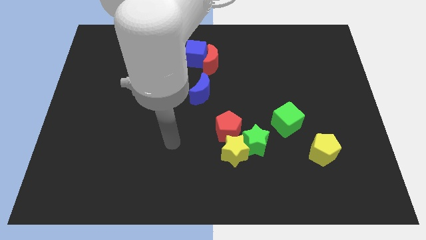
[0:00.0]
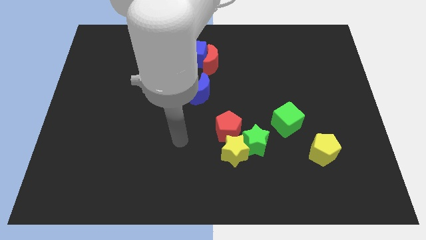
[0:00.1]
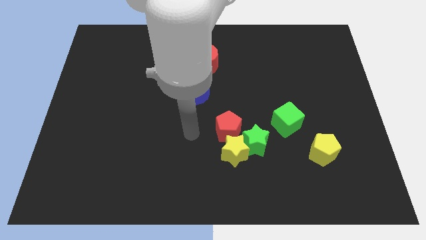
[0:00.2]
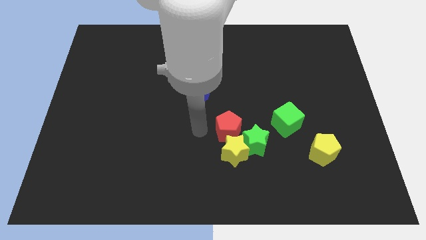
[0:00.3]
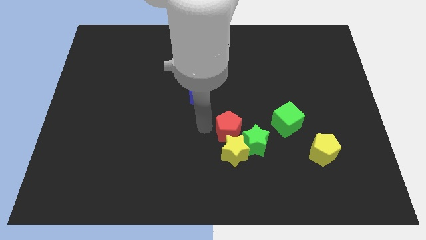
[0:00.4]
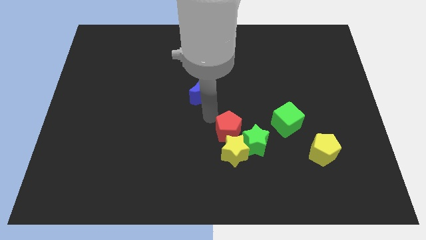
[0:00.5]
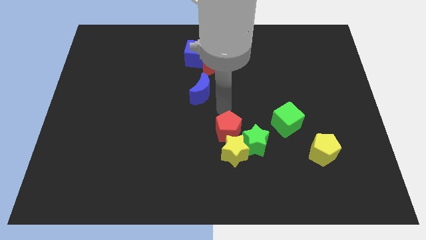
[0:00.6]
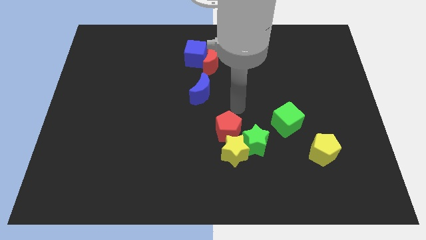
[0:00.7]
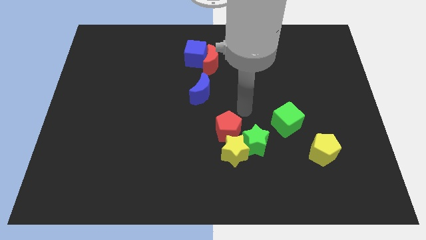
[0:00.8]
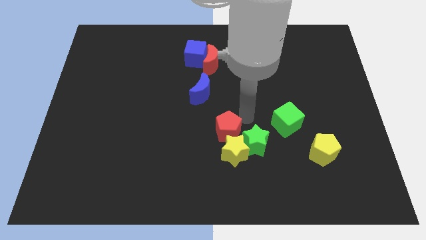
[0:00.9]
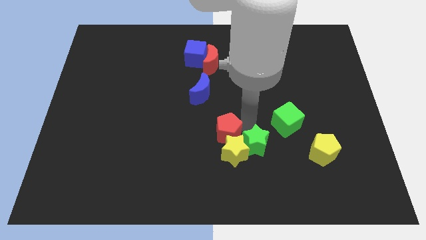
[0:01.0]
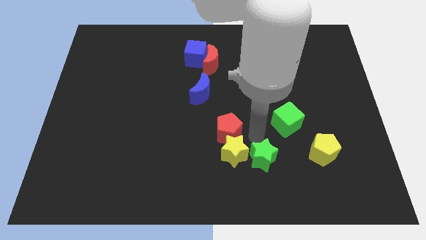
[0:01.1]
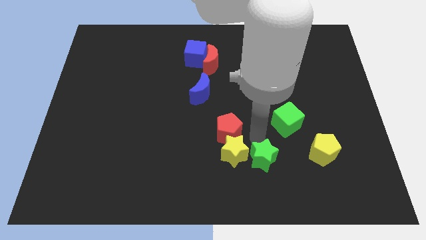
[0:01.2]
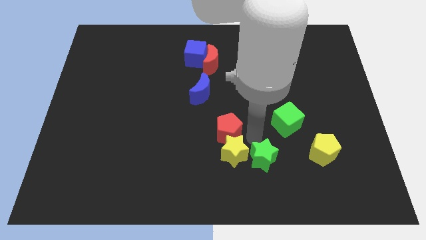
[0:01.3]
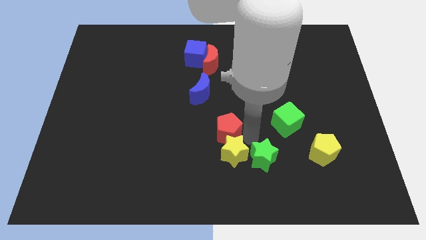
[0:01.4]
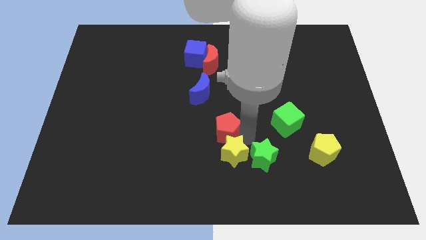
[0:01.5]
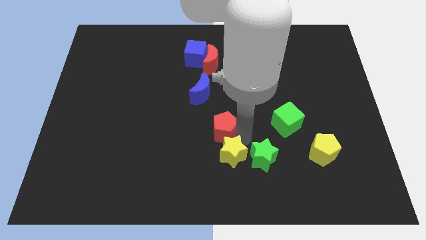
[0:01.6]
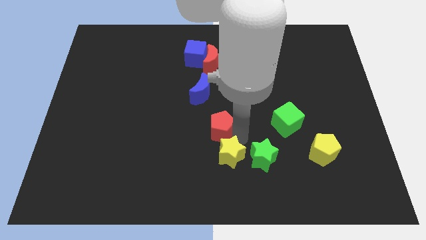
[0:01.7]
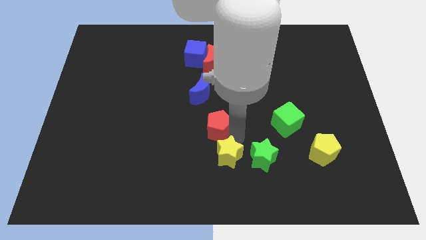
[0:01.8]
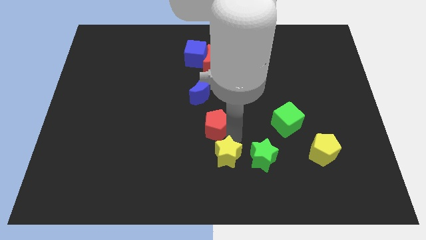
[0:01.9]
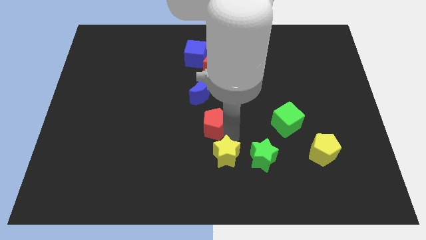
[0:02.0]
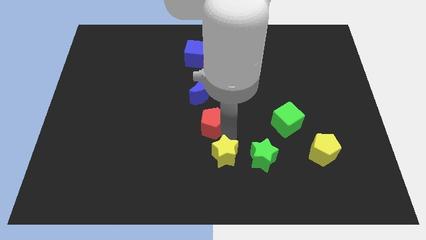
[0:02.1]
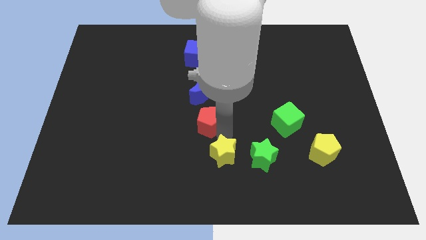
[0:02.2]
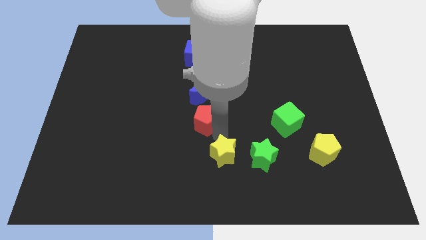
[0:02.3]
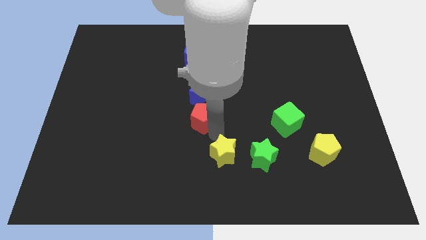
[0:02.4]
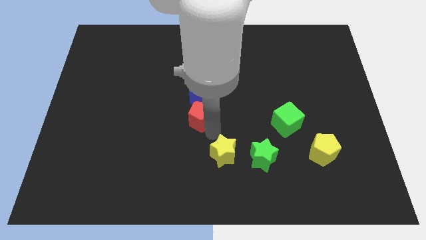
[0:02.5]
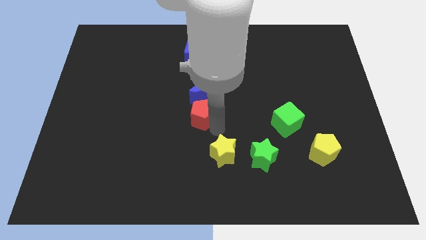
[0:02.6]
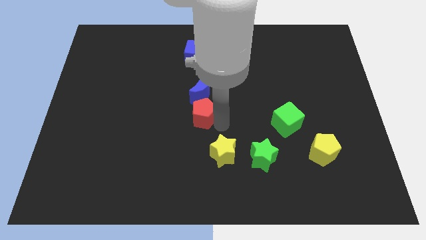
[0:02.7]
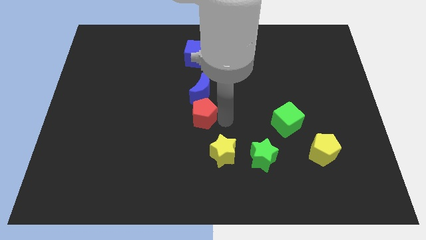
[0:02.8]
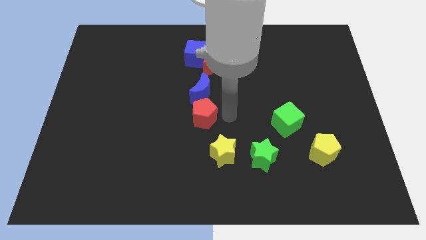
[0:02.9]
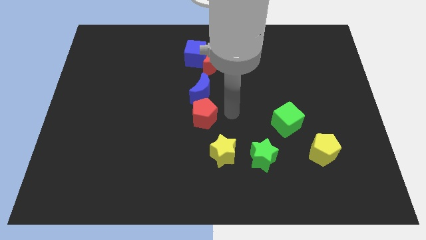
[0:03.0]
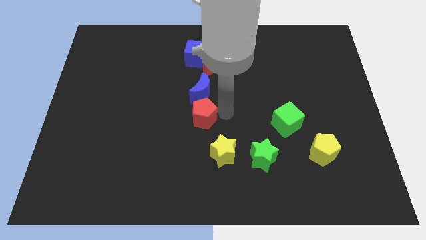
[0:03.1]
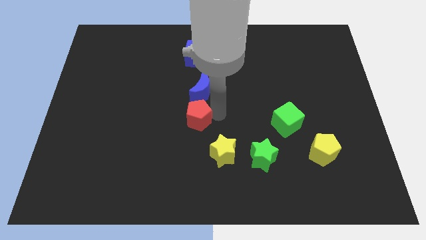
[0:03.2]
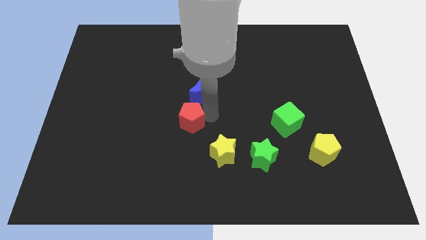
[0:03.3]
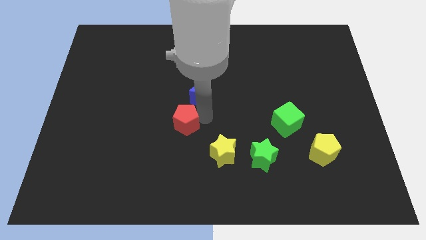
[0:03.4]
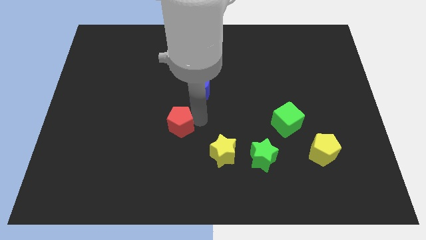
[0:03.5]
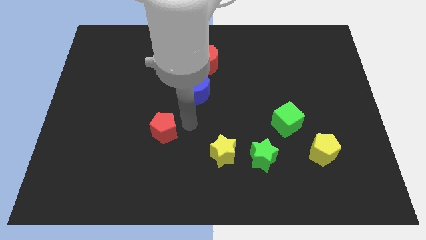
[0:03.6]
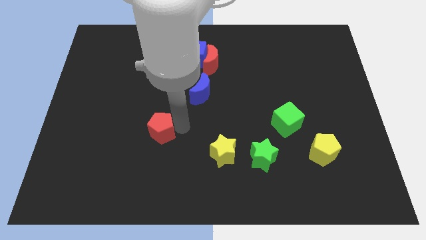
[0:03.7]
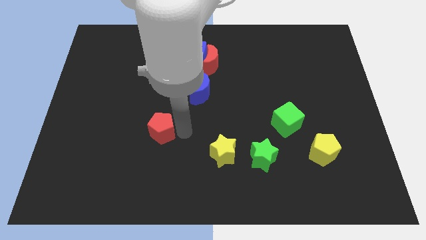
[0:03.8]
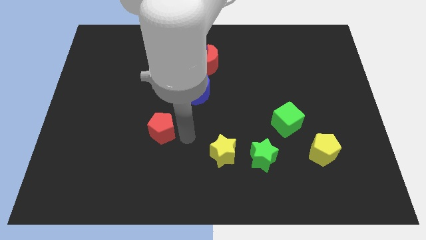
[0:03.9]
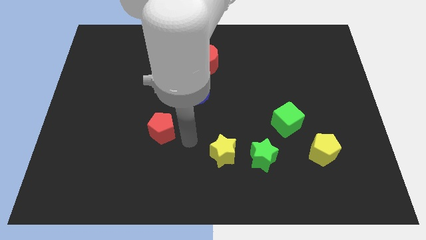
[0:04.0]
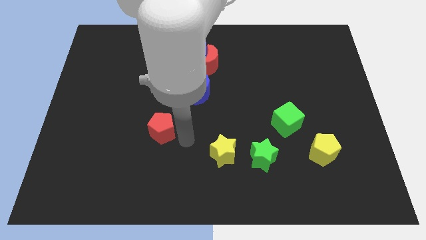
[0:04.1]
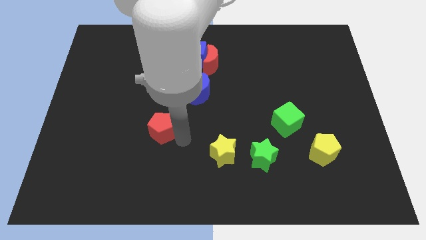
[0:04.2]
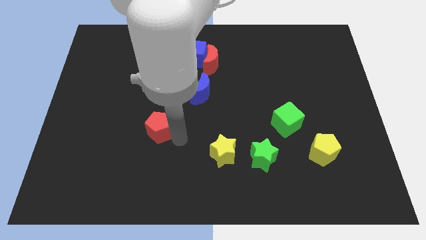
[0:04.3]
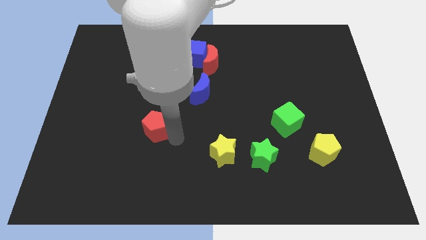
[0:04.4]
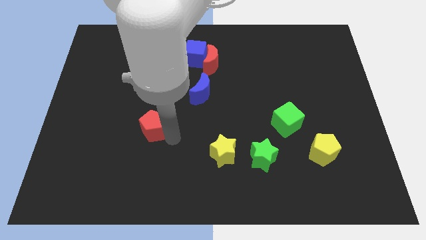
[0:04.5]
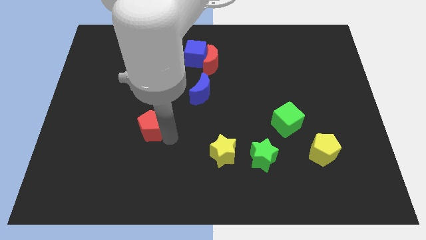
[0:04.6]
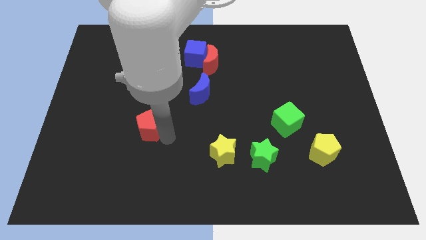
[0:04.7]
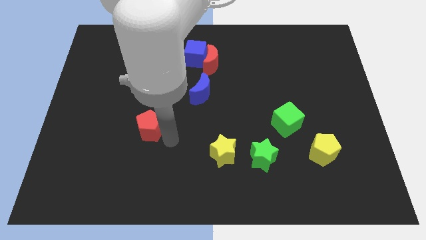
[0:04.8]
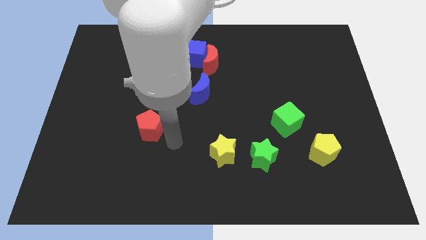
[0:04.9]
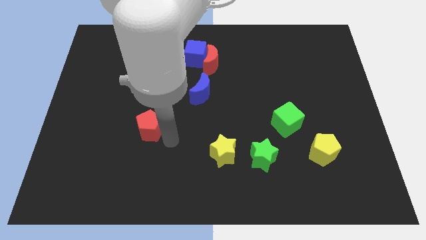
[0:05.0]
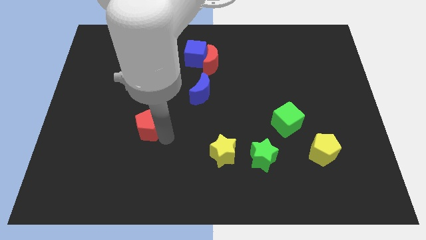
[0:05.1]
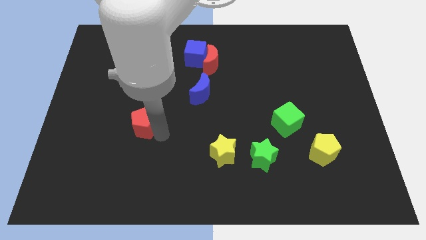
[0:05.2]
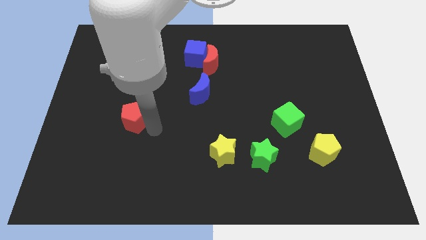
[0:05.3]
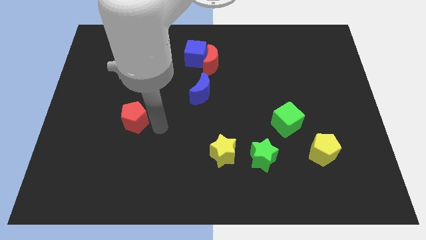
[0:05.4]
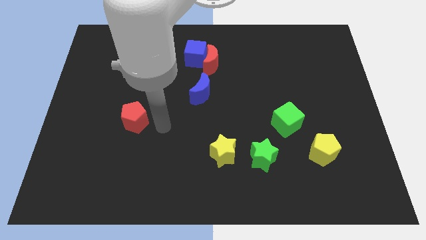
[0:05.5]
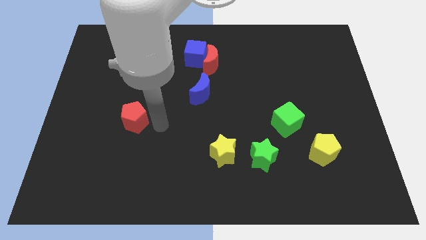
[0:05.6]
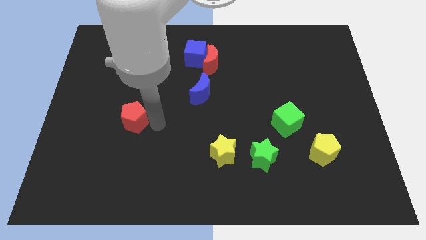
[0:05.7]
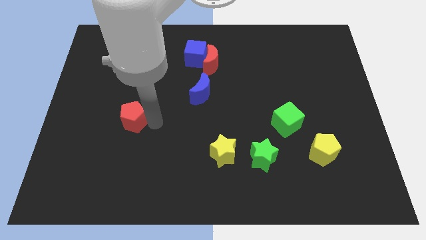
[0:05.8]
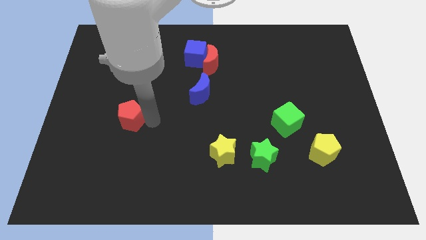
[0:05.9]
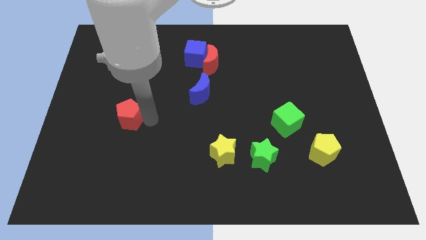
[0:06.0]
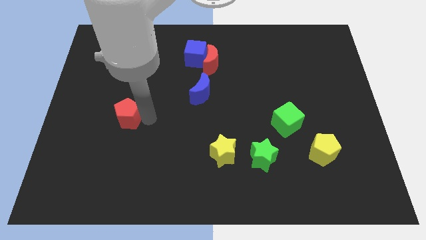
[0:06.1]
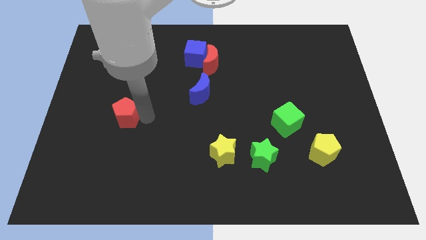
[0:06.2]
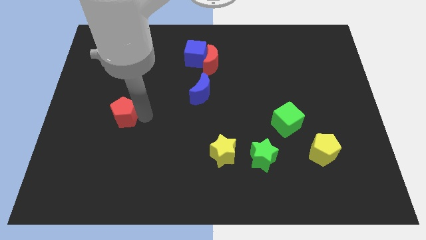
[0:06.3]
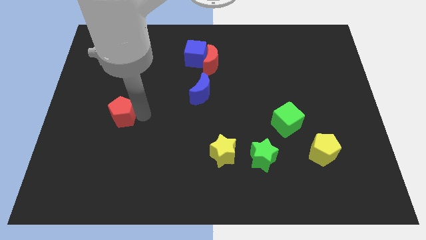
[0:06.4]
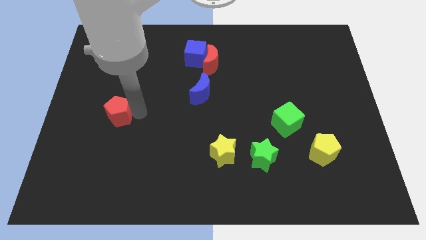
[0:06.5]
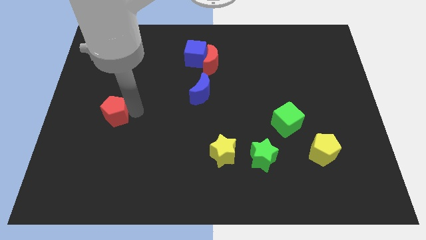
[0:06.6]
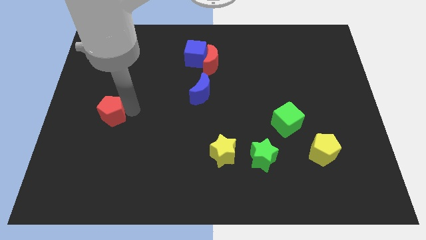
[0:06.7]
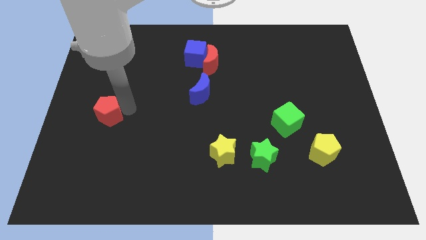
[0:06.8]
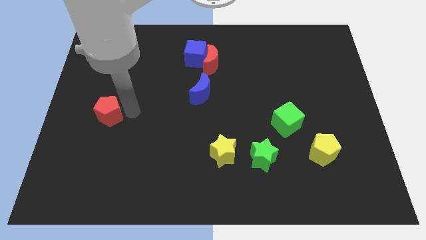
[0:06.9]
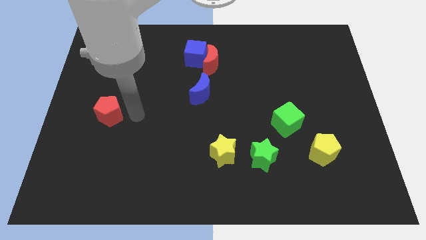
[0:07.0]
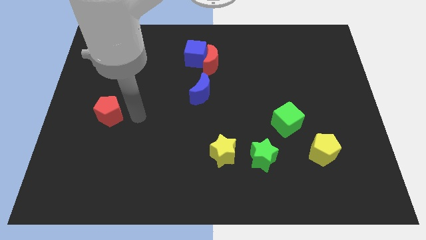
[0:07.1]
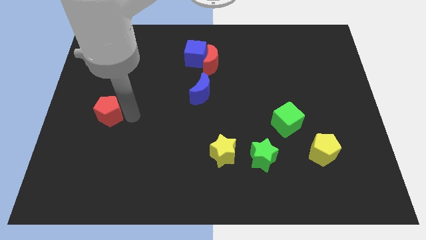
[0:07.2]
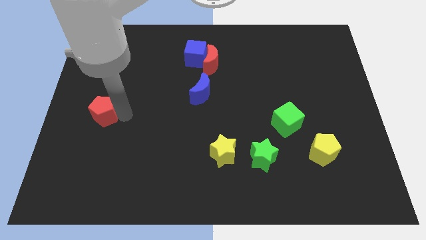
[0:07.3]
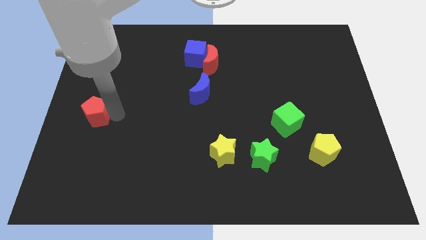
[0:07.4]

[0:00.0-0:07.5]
push the red pentagon to the left side
